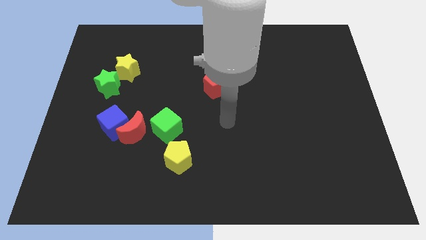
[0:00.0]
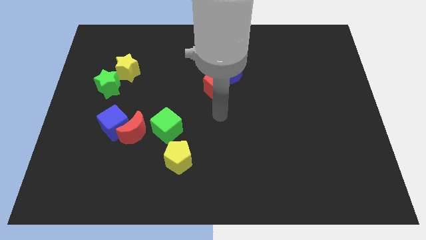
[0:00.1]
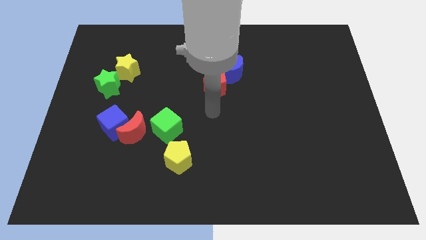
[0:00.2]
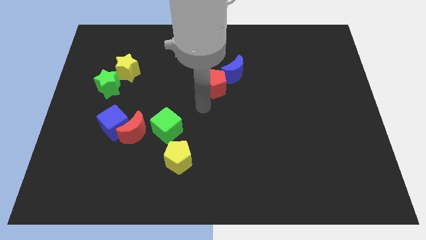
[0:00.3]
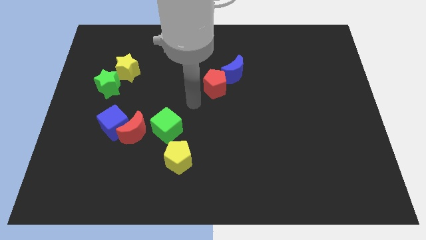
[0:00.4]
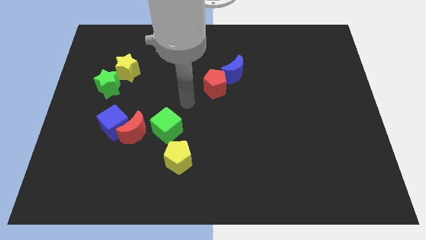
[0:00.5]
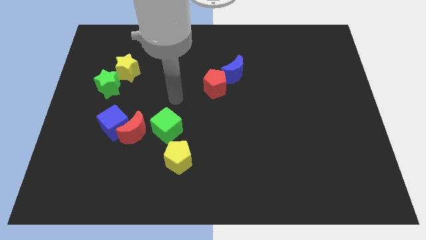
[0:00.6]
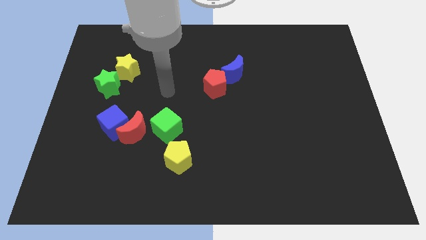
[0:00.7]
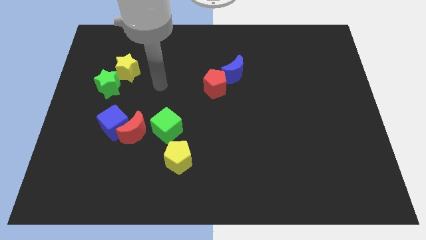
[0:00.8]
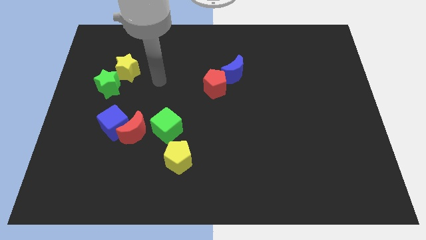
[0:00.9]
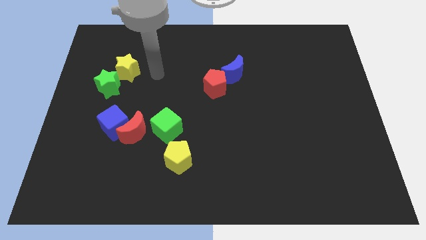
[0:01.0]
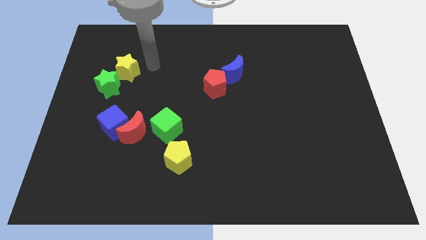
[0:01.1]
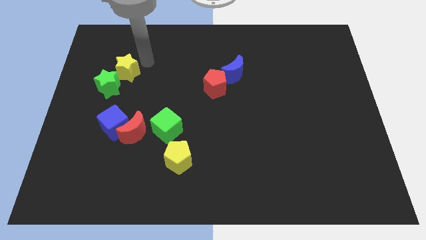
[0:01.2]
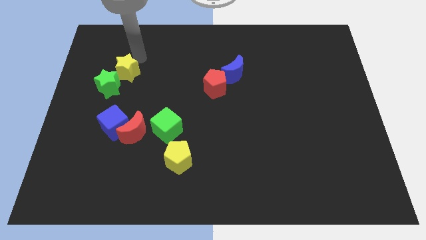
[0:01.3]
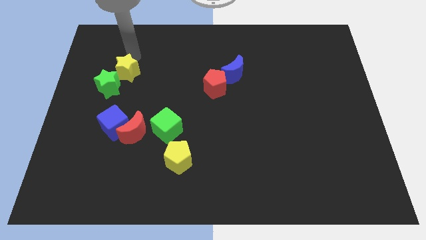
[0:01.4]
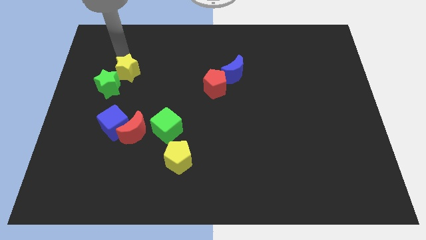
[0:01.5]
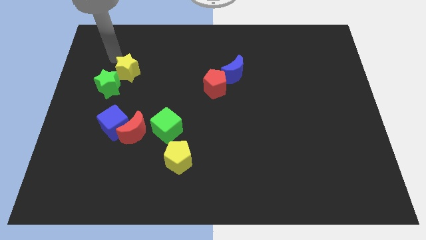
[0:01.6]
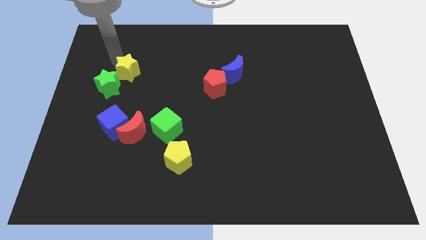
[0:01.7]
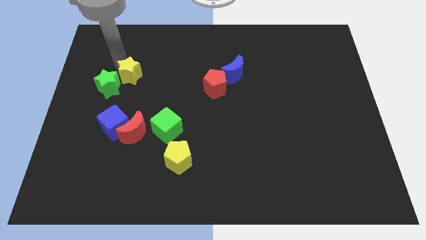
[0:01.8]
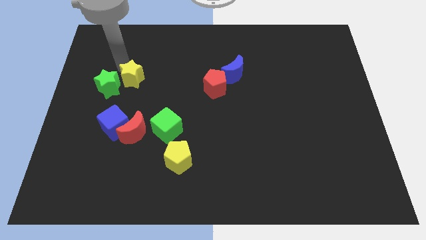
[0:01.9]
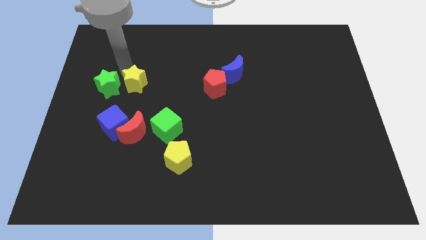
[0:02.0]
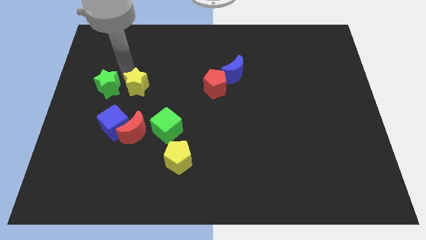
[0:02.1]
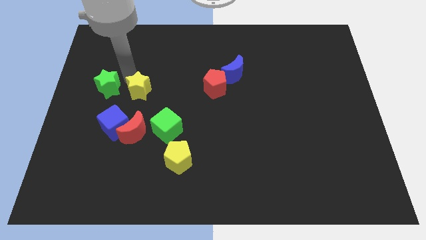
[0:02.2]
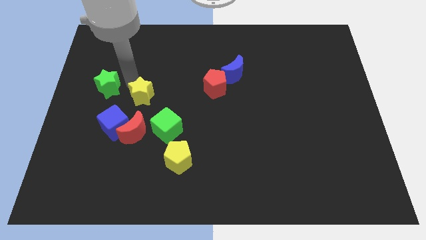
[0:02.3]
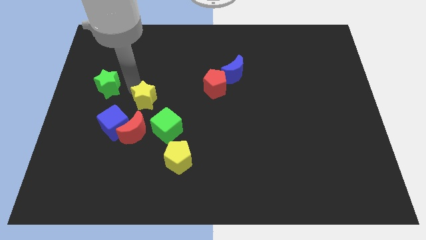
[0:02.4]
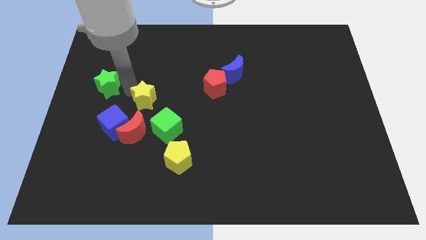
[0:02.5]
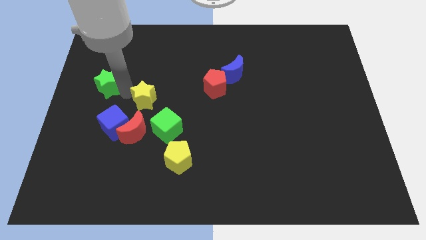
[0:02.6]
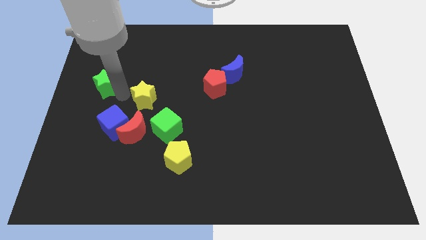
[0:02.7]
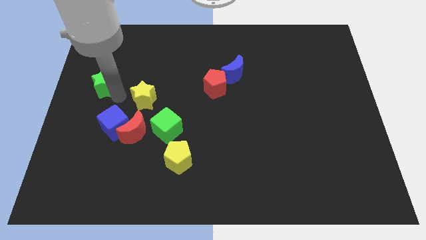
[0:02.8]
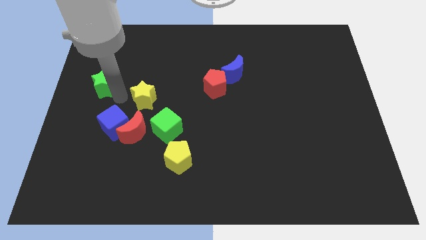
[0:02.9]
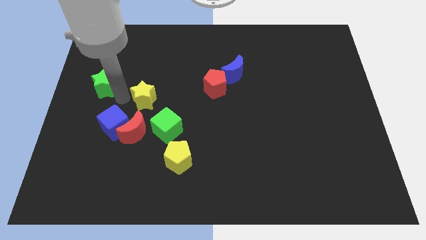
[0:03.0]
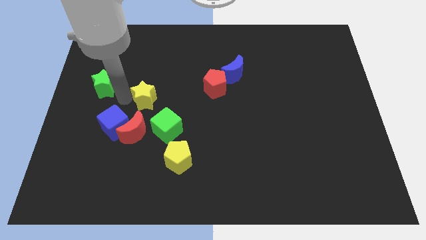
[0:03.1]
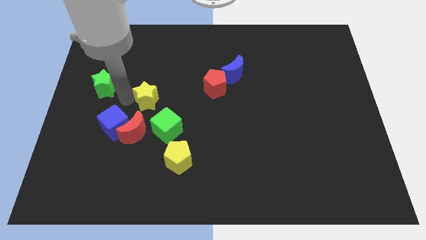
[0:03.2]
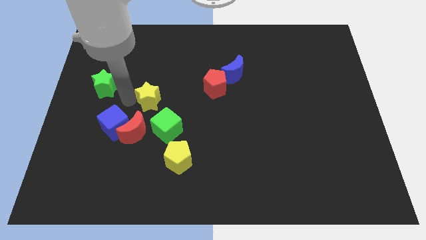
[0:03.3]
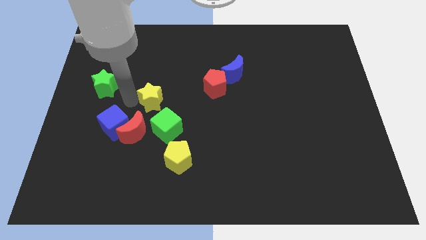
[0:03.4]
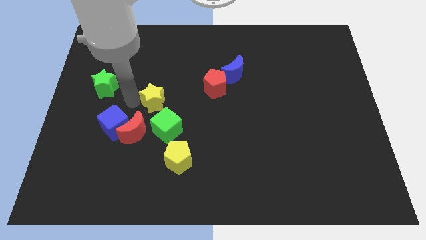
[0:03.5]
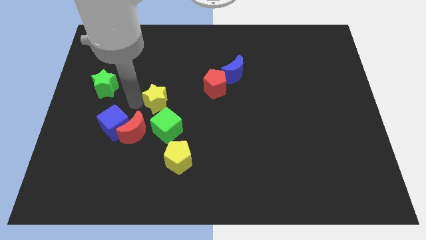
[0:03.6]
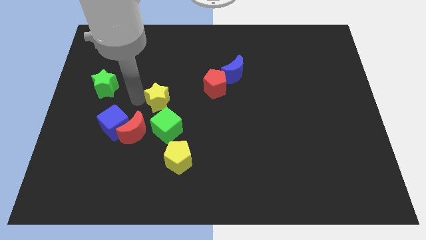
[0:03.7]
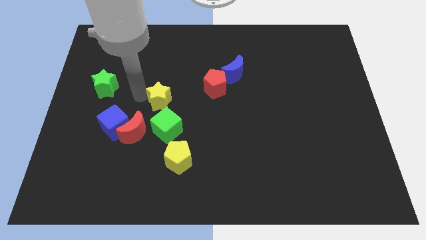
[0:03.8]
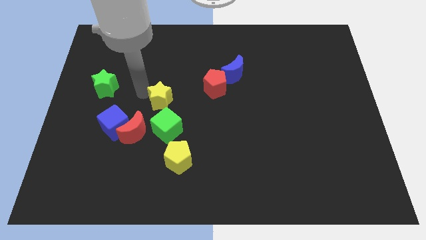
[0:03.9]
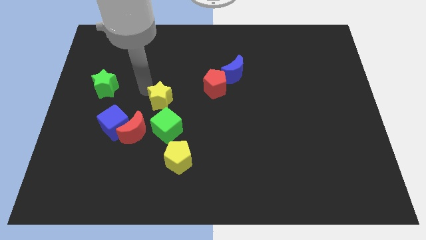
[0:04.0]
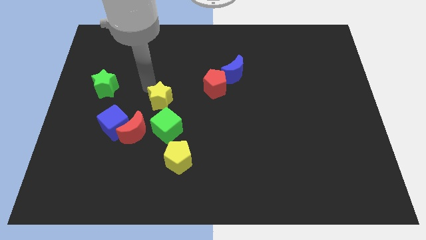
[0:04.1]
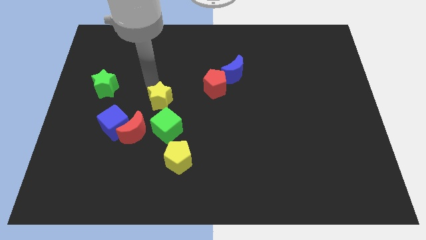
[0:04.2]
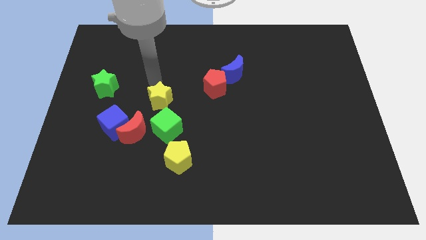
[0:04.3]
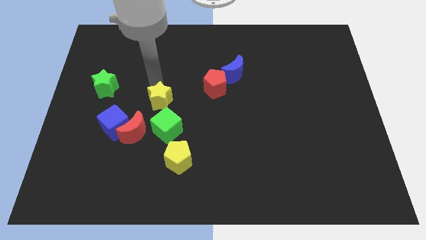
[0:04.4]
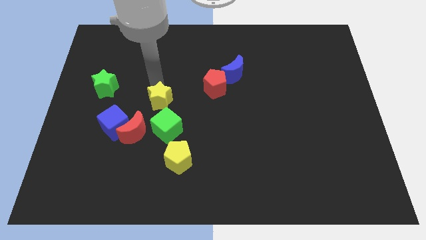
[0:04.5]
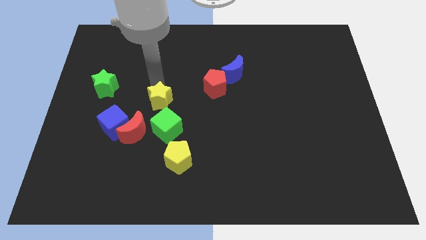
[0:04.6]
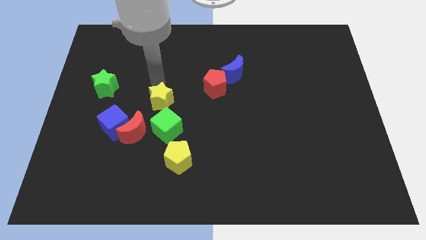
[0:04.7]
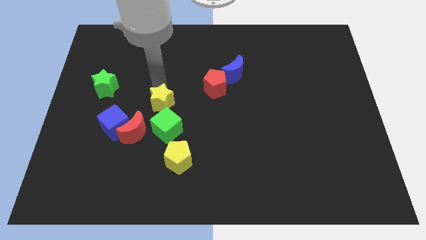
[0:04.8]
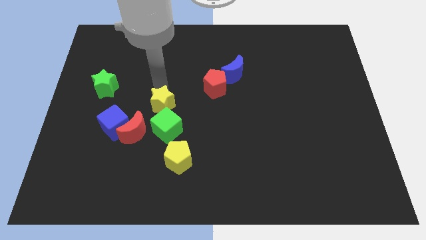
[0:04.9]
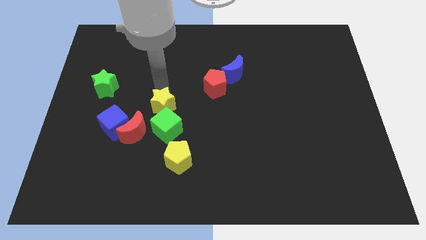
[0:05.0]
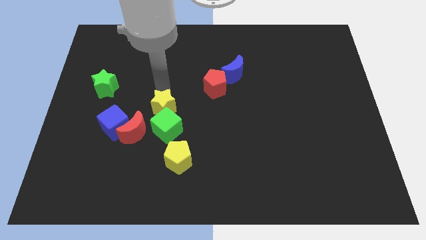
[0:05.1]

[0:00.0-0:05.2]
move the yellow star close to the green cube
